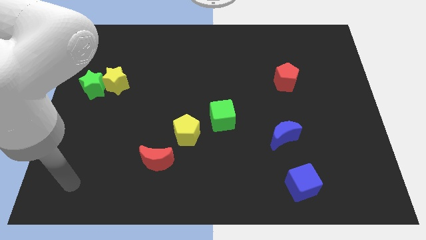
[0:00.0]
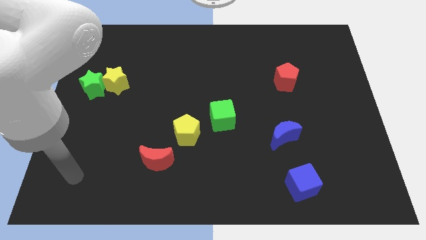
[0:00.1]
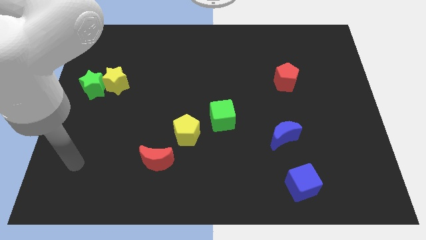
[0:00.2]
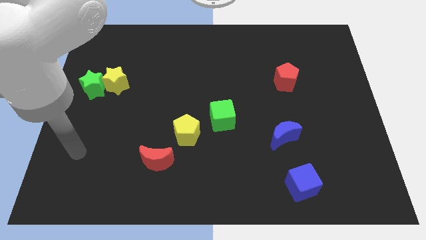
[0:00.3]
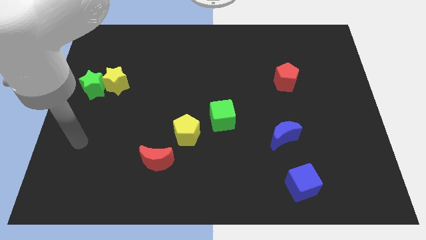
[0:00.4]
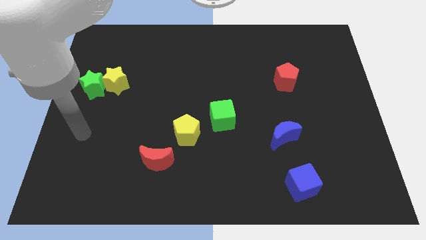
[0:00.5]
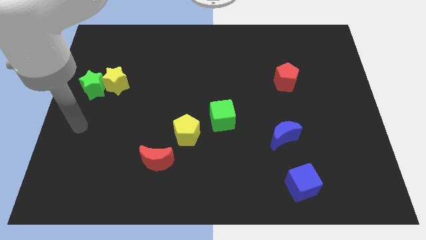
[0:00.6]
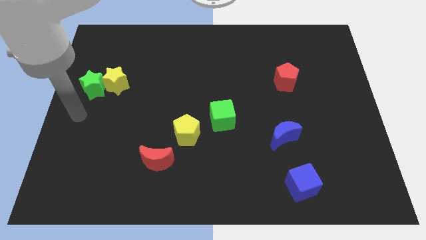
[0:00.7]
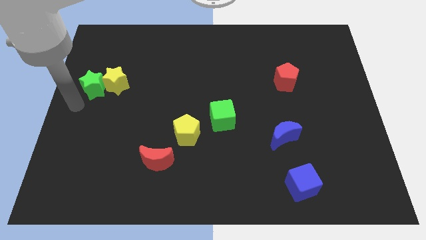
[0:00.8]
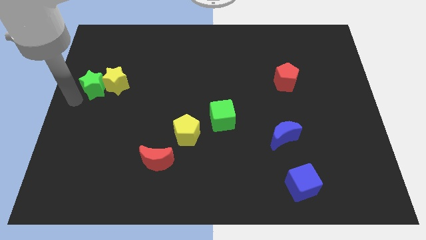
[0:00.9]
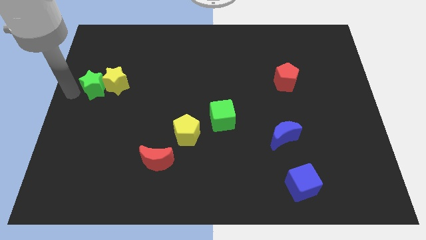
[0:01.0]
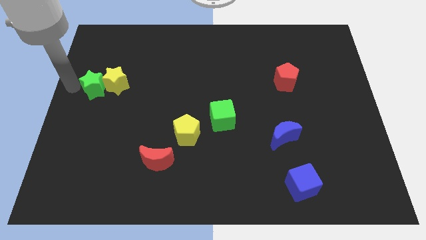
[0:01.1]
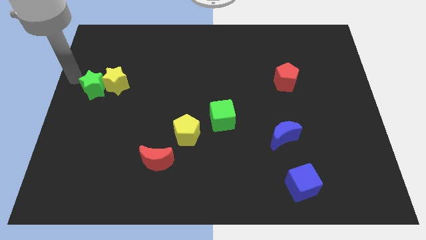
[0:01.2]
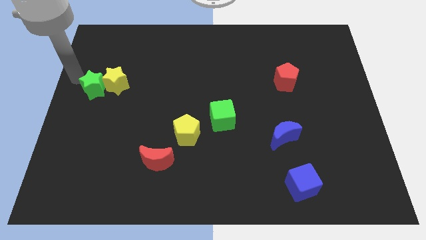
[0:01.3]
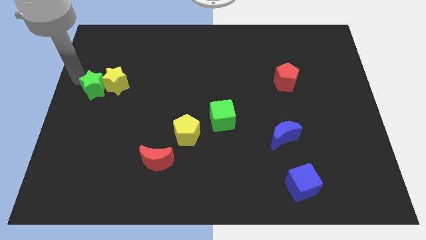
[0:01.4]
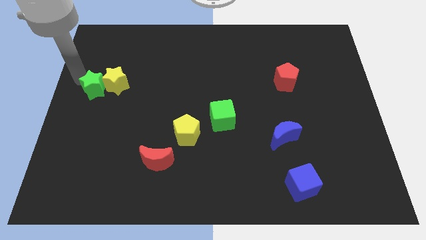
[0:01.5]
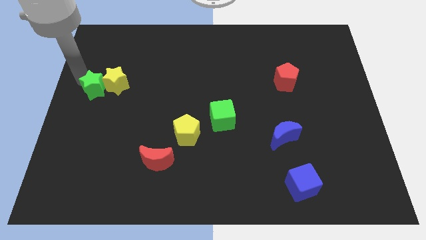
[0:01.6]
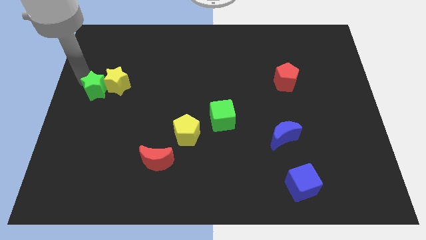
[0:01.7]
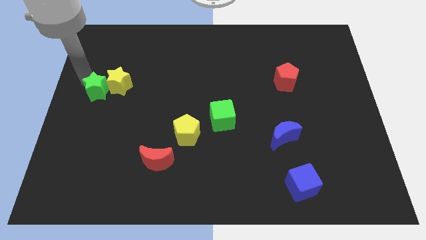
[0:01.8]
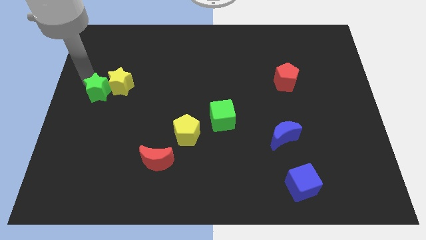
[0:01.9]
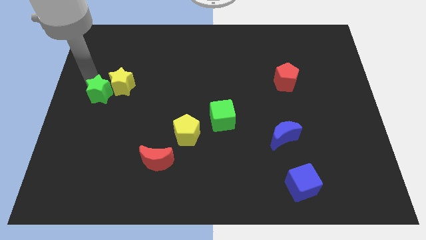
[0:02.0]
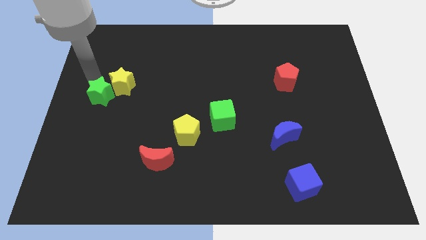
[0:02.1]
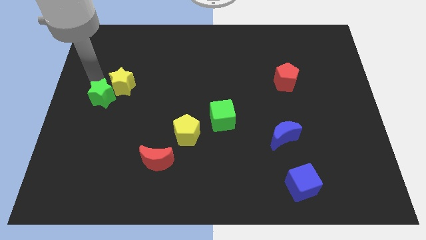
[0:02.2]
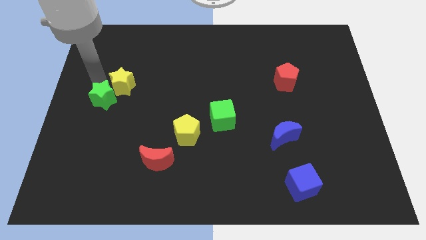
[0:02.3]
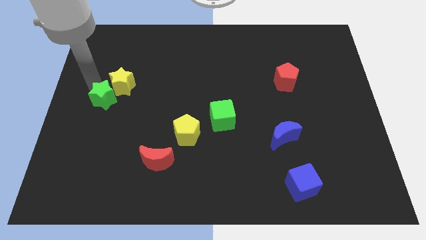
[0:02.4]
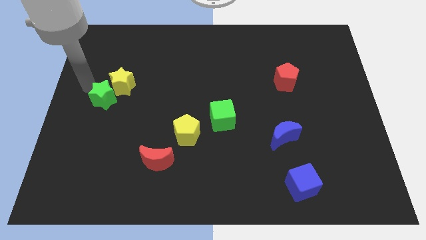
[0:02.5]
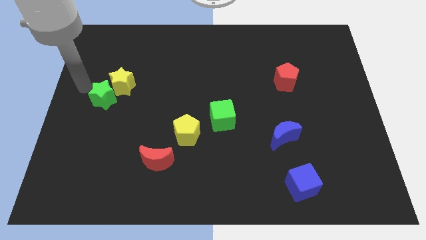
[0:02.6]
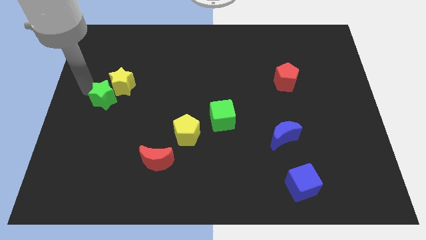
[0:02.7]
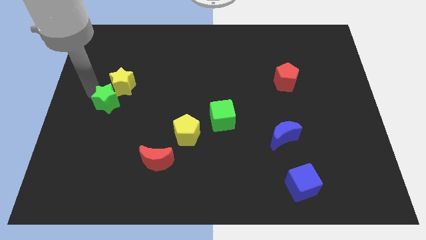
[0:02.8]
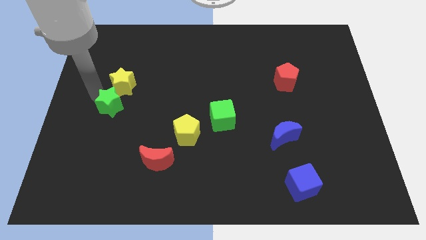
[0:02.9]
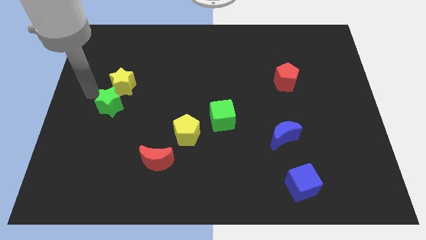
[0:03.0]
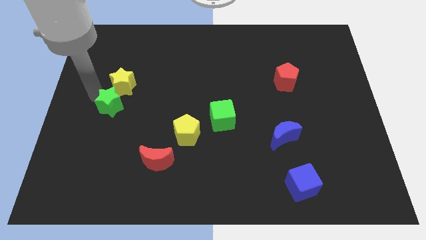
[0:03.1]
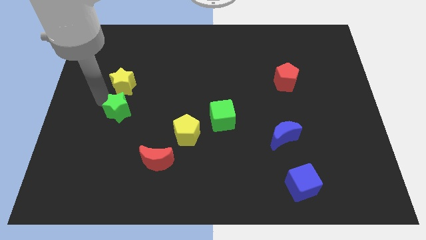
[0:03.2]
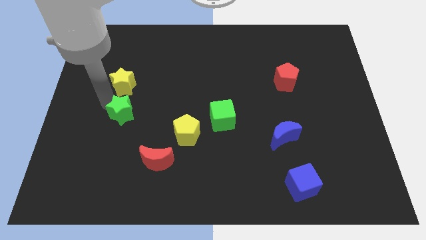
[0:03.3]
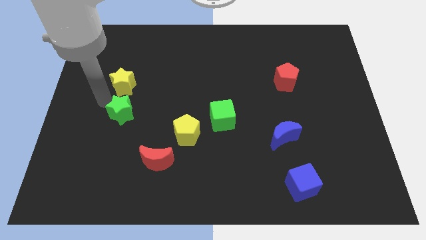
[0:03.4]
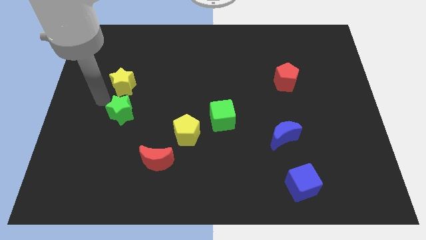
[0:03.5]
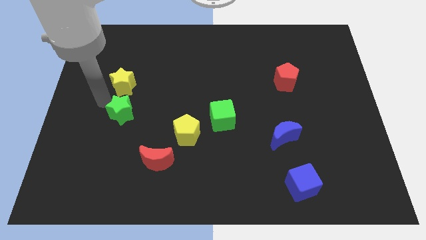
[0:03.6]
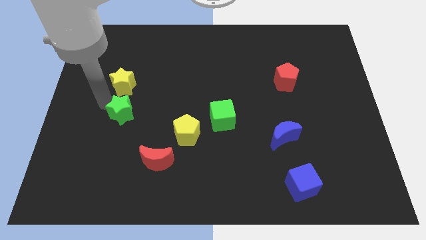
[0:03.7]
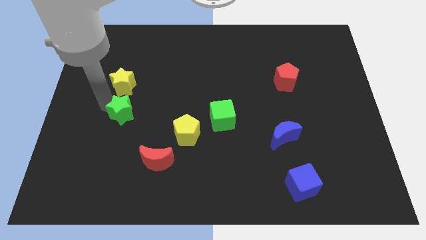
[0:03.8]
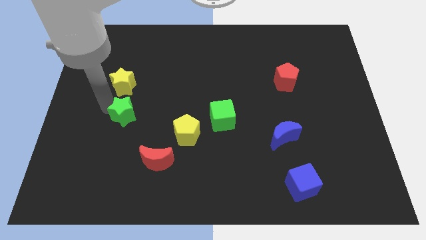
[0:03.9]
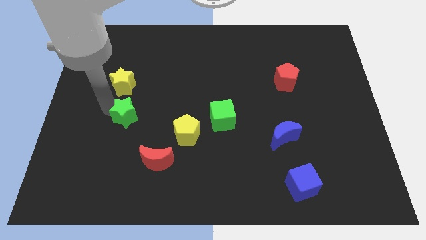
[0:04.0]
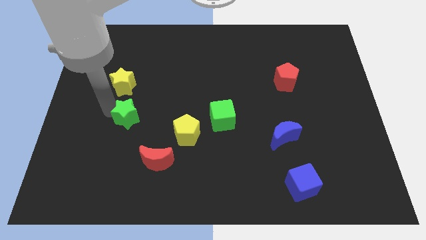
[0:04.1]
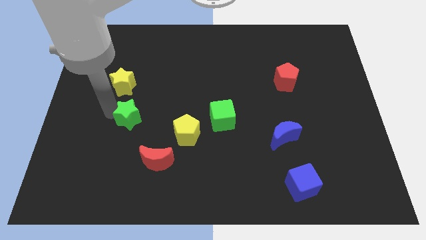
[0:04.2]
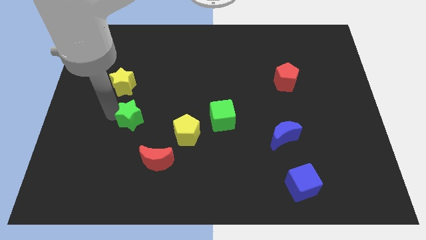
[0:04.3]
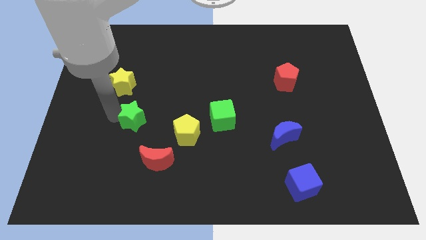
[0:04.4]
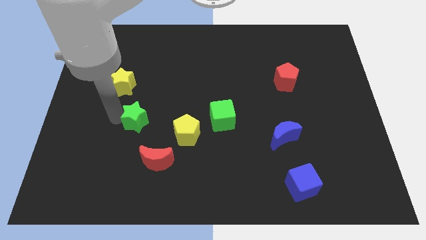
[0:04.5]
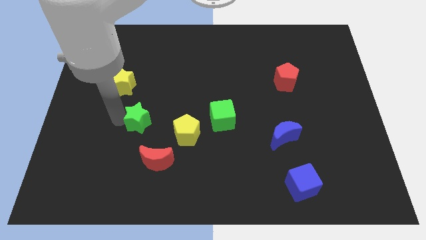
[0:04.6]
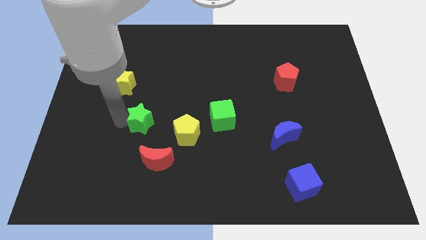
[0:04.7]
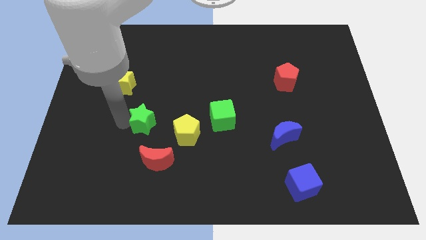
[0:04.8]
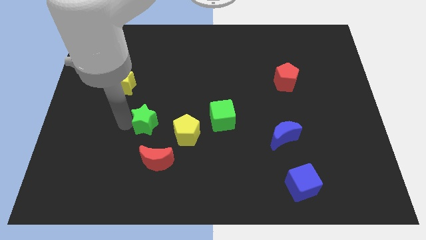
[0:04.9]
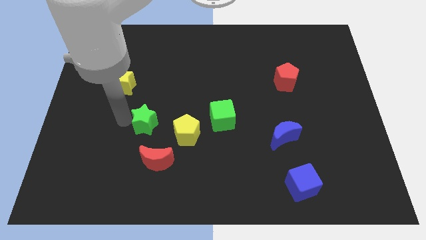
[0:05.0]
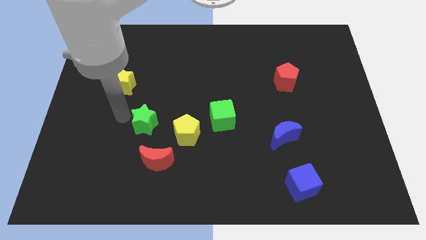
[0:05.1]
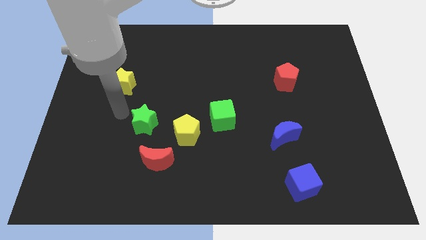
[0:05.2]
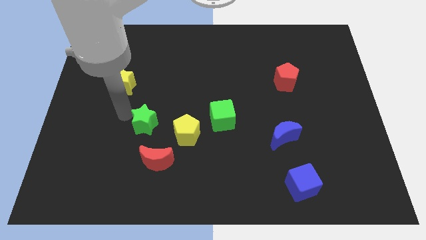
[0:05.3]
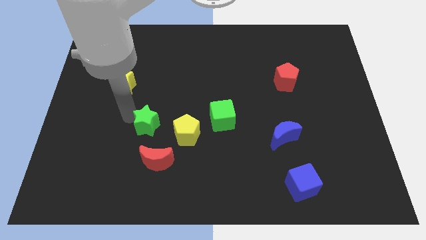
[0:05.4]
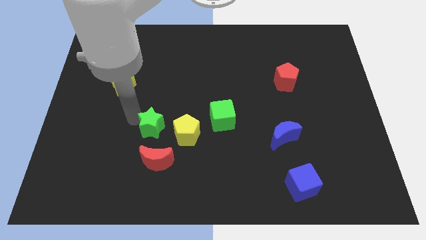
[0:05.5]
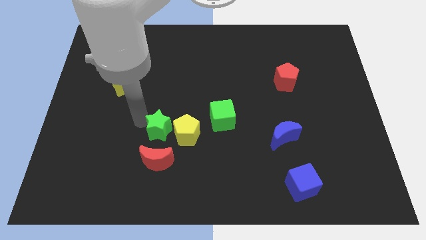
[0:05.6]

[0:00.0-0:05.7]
move the green star down and to the right

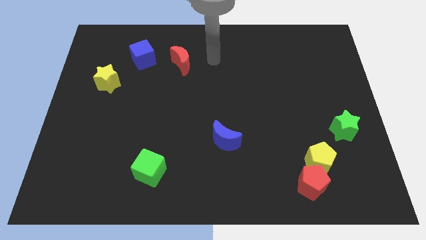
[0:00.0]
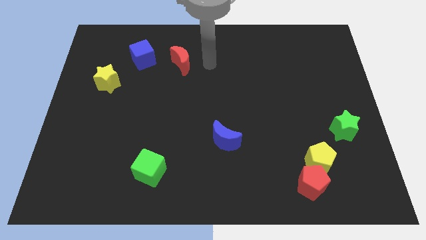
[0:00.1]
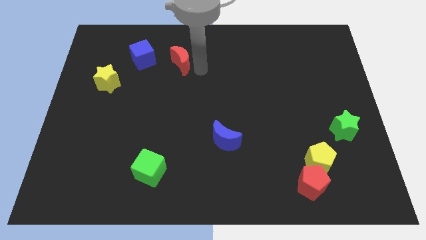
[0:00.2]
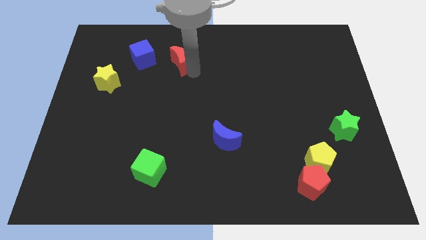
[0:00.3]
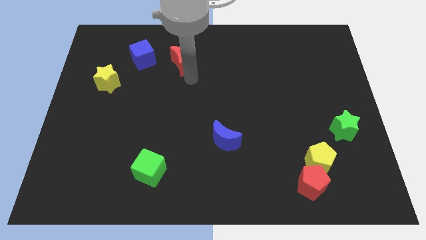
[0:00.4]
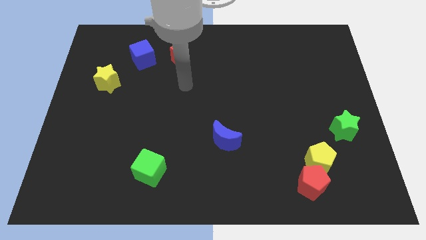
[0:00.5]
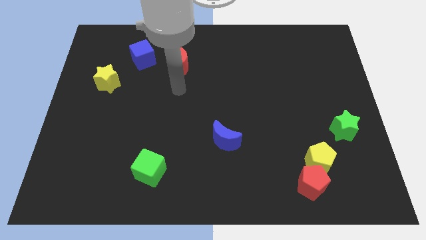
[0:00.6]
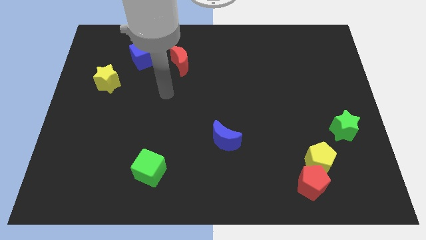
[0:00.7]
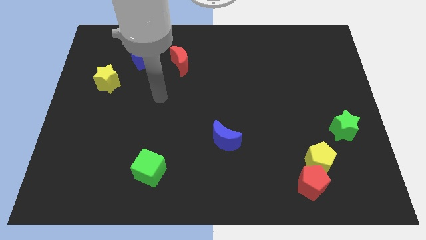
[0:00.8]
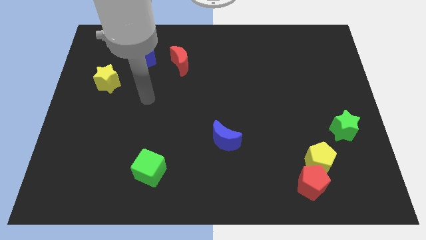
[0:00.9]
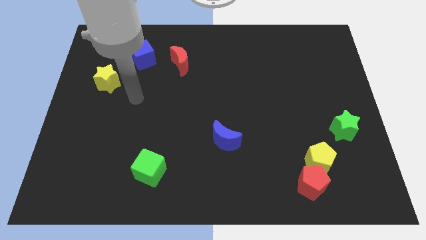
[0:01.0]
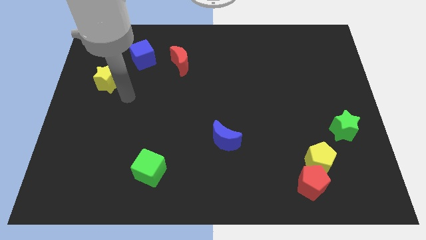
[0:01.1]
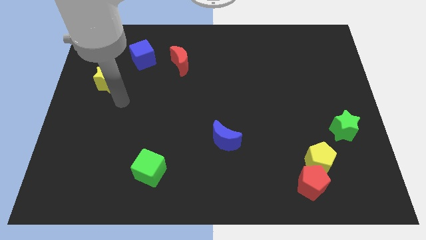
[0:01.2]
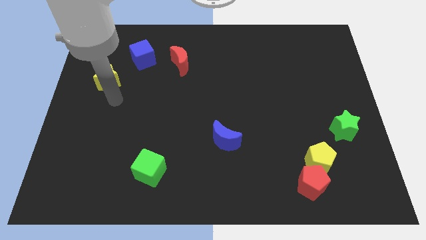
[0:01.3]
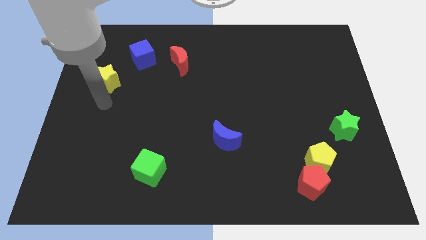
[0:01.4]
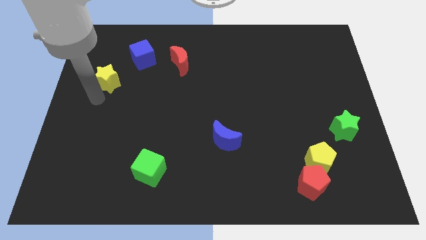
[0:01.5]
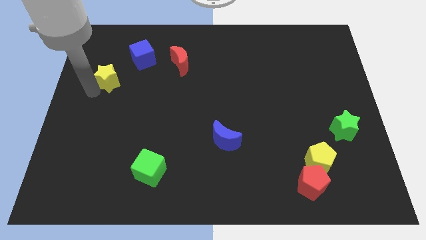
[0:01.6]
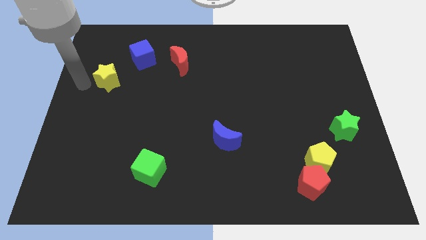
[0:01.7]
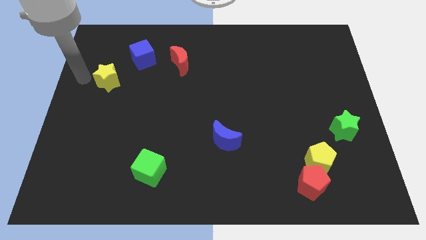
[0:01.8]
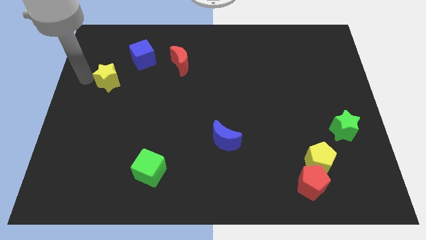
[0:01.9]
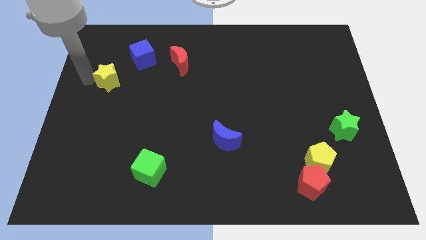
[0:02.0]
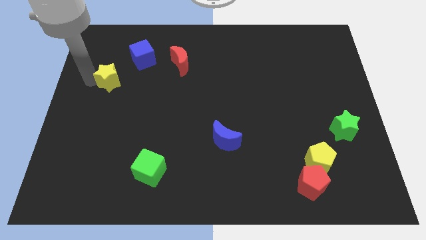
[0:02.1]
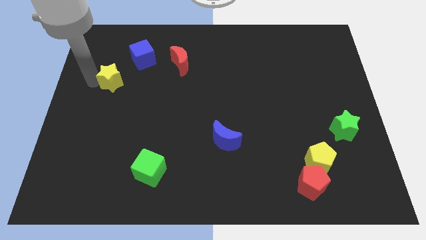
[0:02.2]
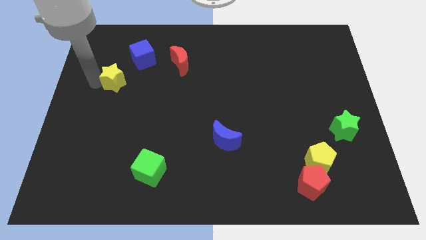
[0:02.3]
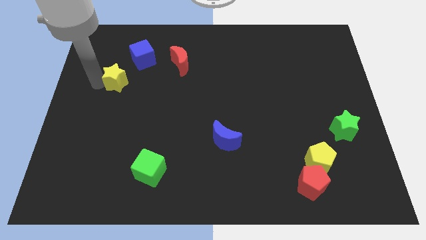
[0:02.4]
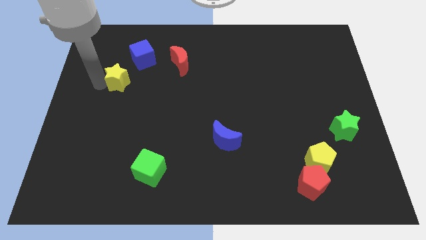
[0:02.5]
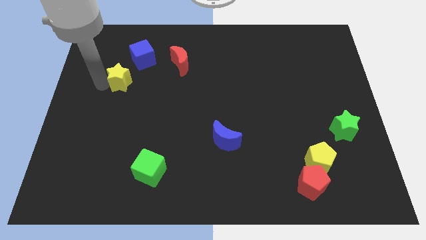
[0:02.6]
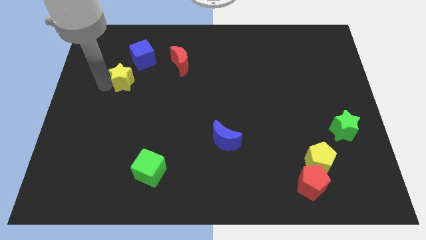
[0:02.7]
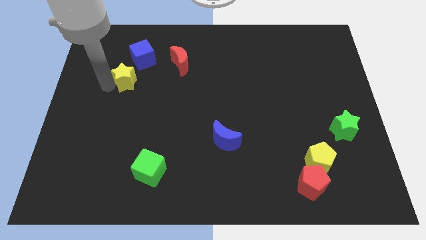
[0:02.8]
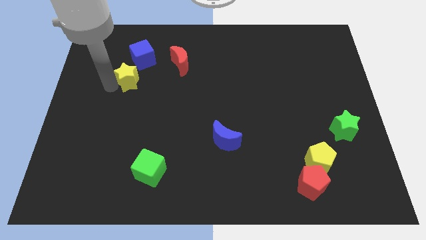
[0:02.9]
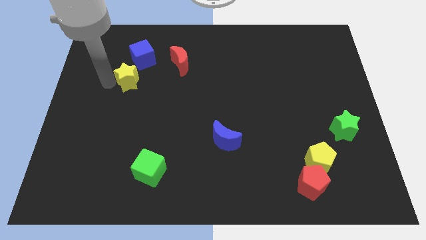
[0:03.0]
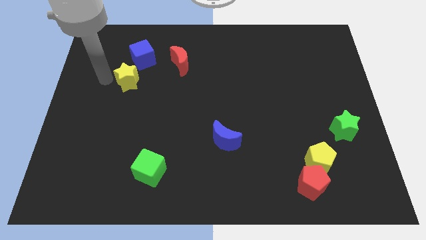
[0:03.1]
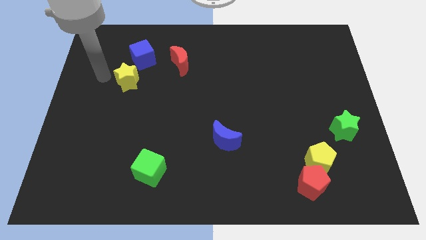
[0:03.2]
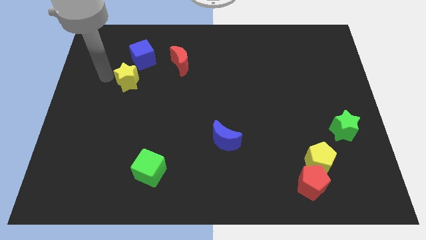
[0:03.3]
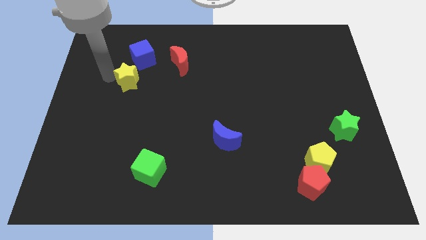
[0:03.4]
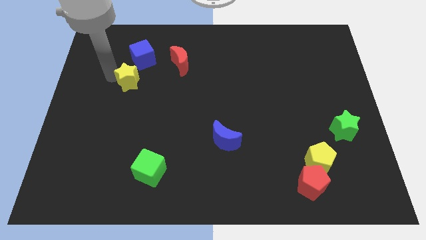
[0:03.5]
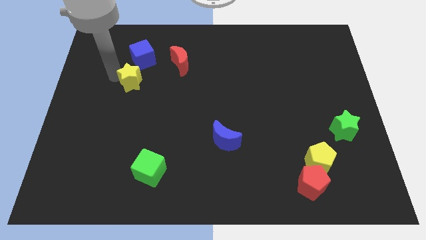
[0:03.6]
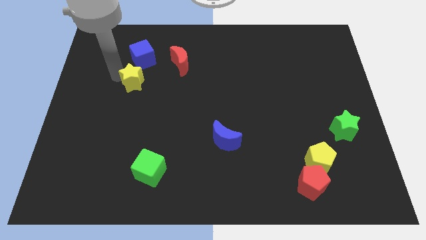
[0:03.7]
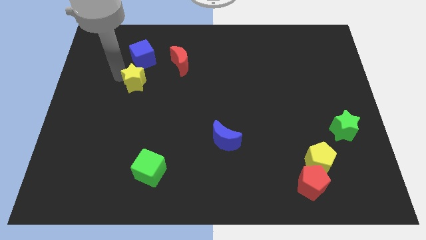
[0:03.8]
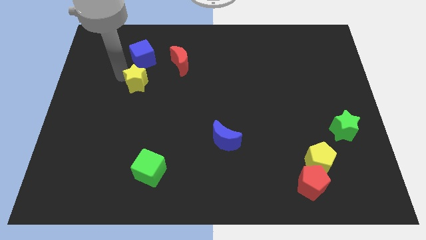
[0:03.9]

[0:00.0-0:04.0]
slide the yellow star right a little
